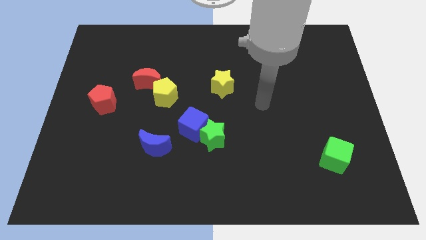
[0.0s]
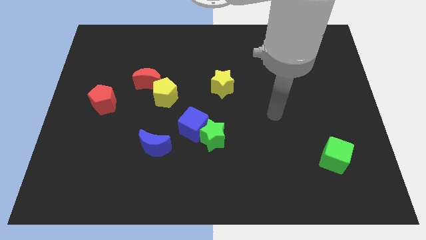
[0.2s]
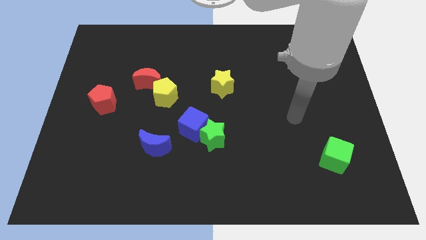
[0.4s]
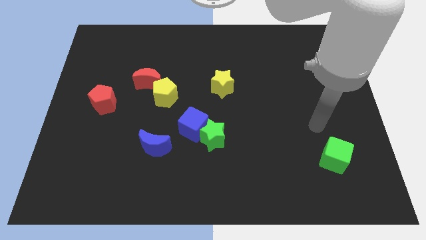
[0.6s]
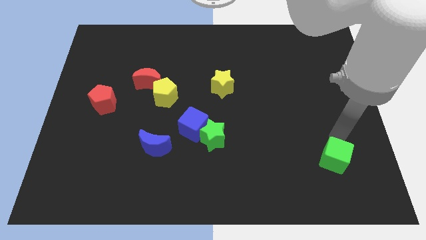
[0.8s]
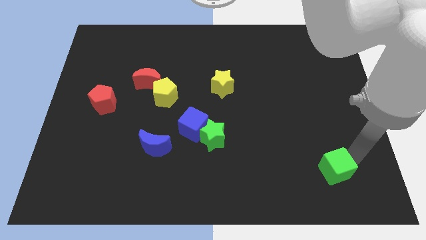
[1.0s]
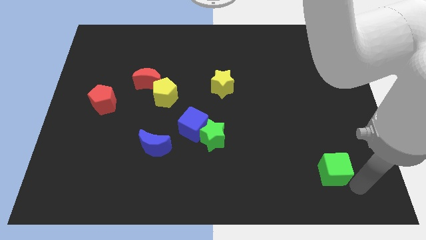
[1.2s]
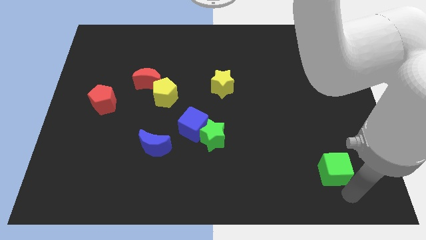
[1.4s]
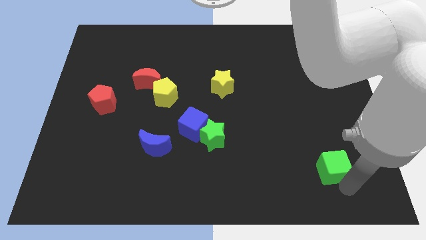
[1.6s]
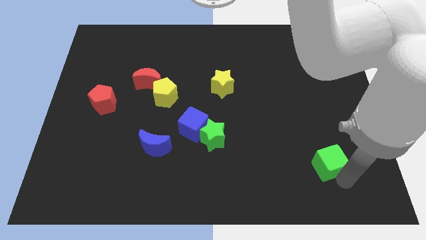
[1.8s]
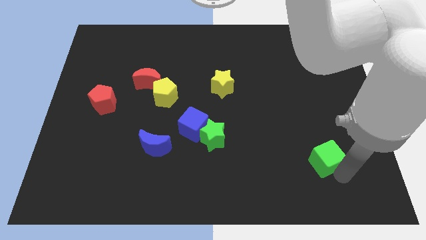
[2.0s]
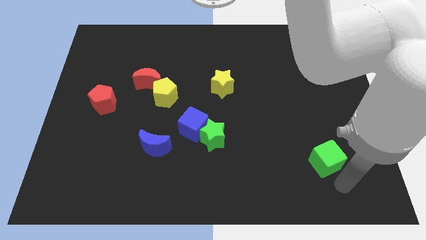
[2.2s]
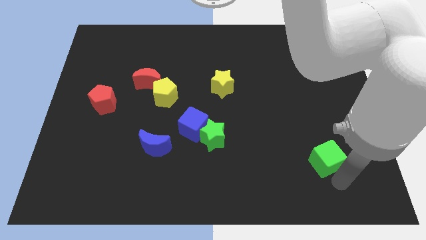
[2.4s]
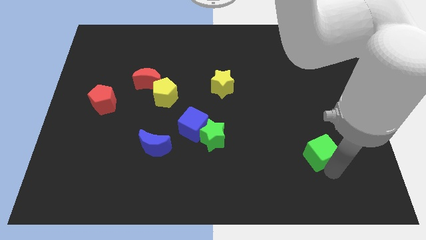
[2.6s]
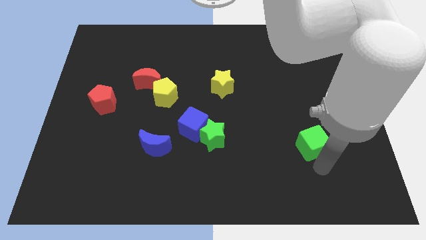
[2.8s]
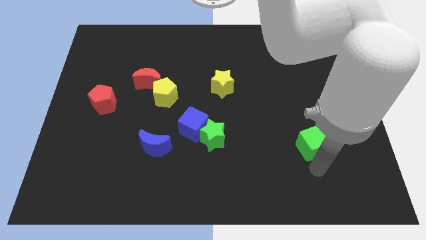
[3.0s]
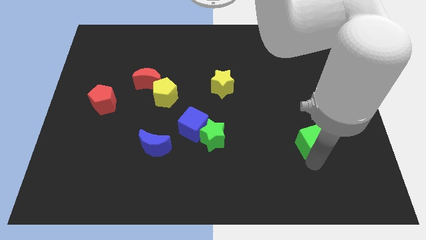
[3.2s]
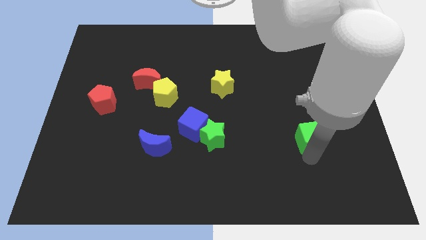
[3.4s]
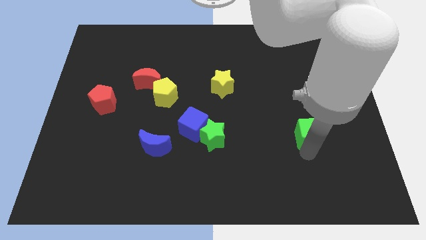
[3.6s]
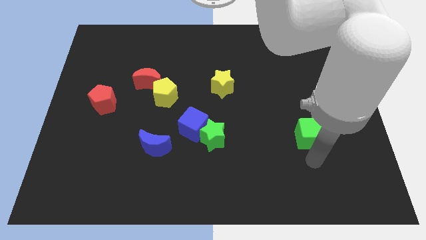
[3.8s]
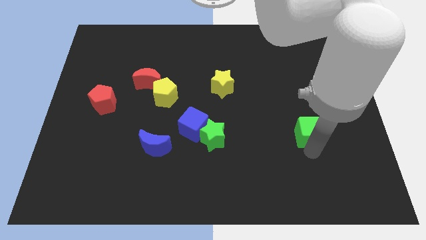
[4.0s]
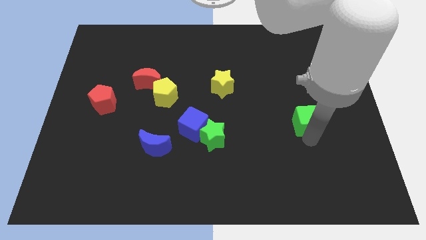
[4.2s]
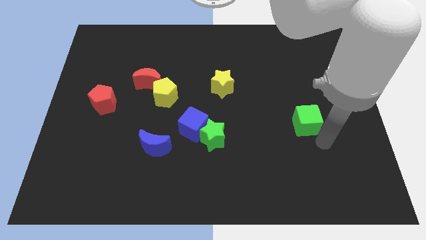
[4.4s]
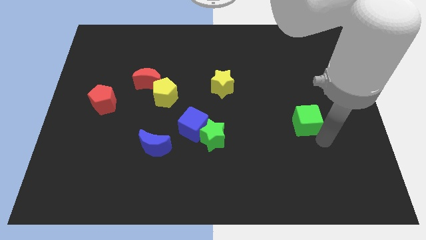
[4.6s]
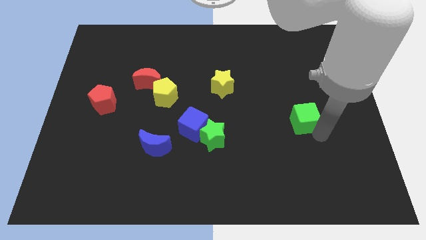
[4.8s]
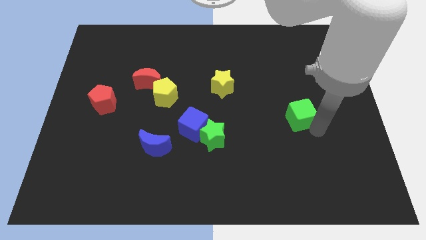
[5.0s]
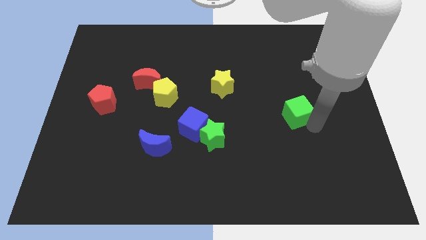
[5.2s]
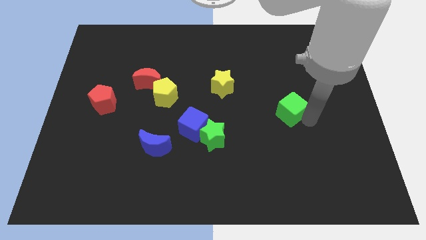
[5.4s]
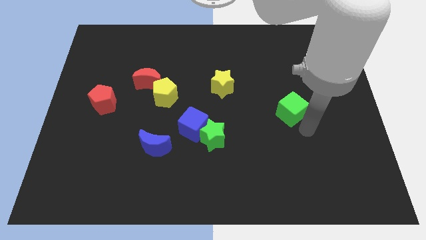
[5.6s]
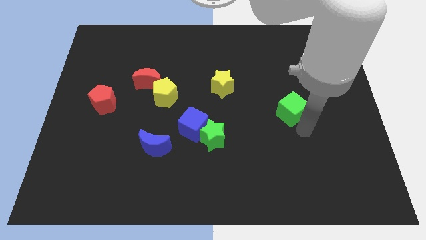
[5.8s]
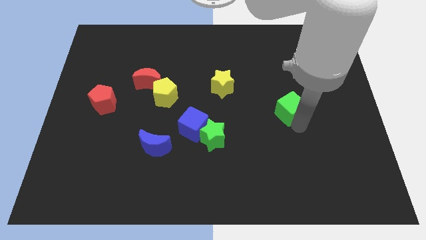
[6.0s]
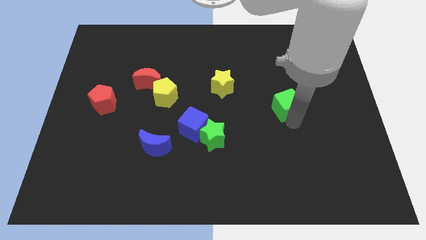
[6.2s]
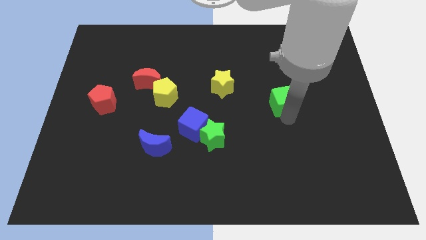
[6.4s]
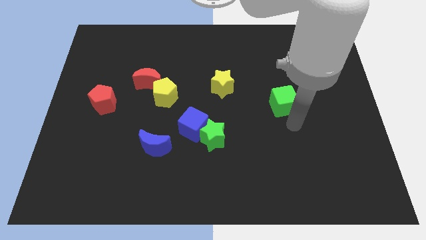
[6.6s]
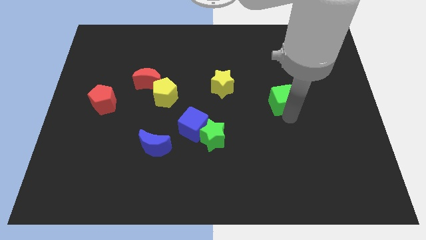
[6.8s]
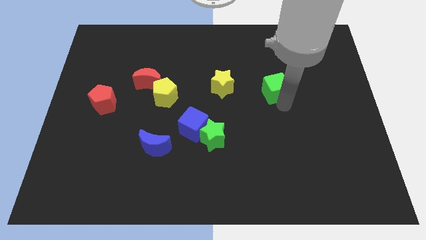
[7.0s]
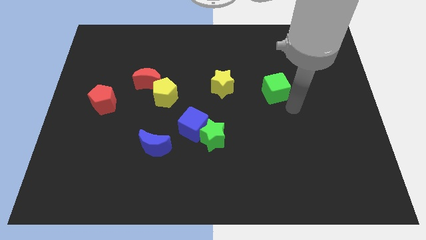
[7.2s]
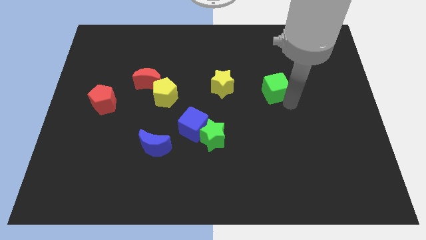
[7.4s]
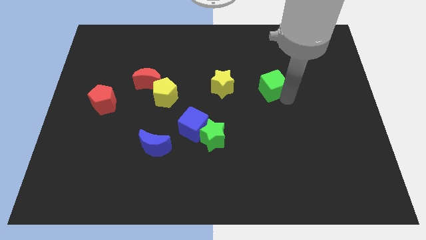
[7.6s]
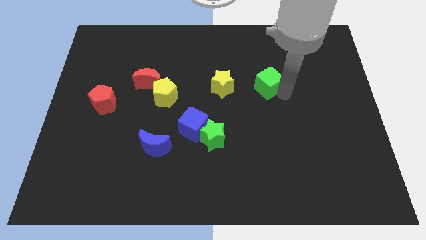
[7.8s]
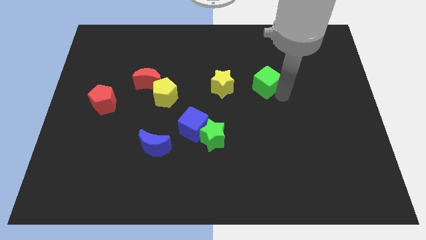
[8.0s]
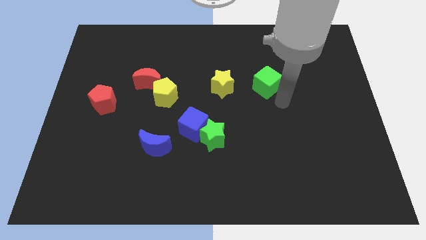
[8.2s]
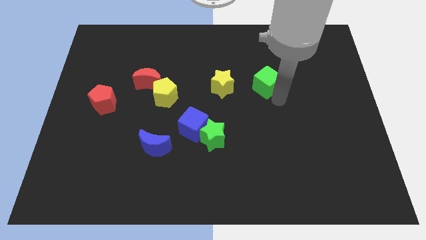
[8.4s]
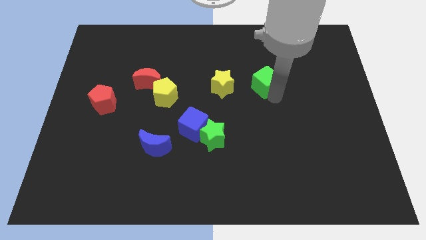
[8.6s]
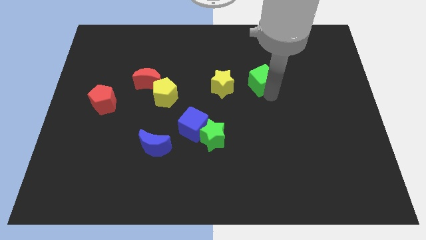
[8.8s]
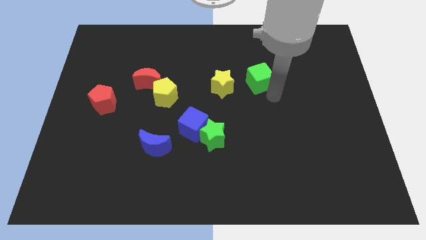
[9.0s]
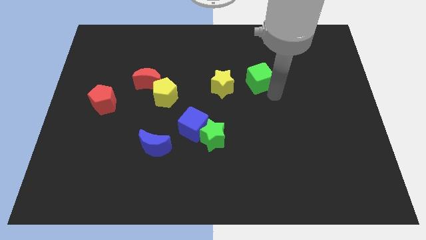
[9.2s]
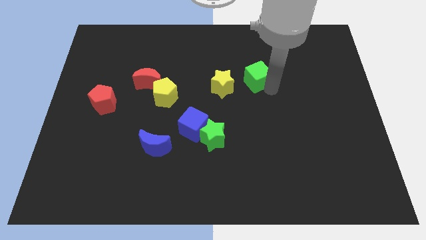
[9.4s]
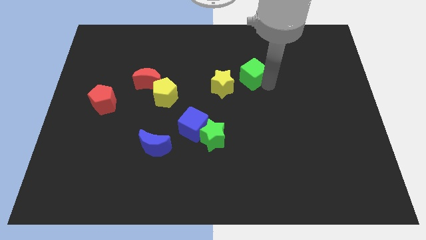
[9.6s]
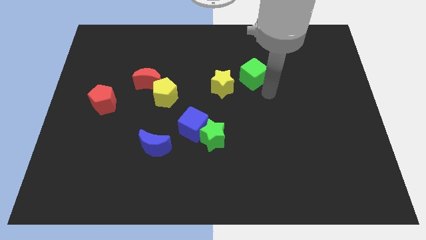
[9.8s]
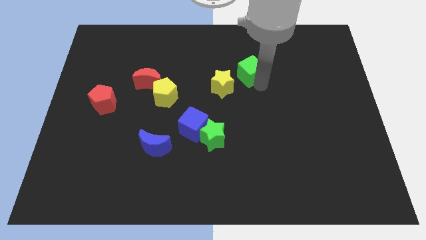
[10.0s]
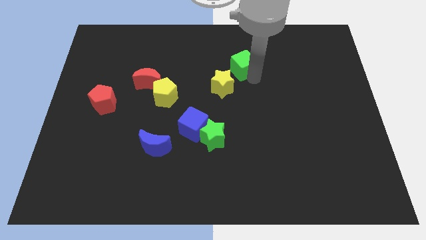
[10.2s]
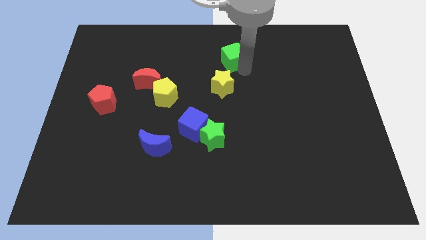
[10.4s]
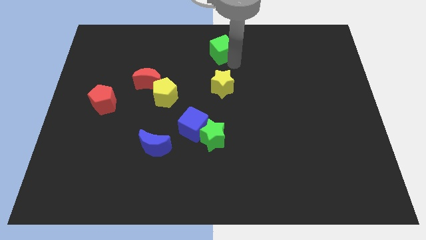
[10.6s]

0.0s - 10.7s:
move the green cube to the top
